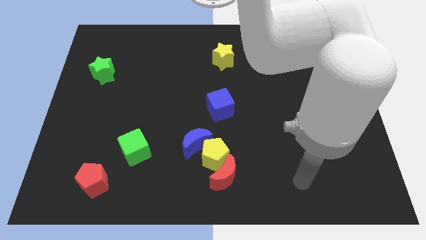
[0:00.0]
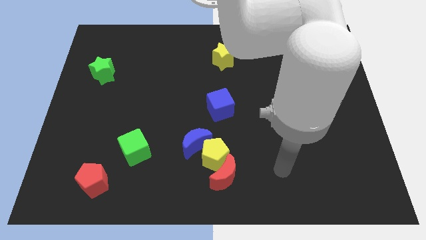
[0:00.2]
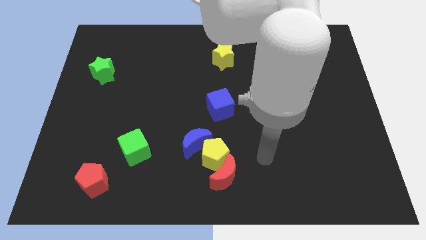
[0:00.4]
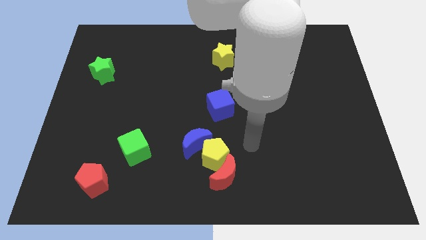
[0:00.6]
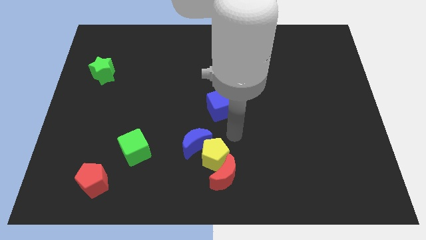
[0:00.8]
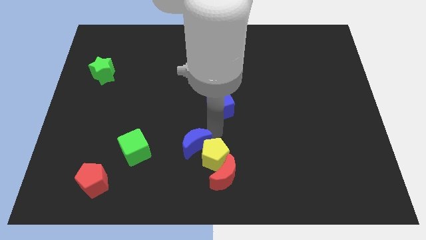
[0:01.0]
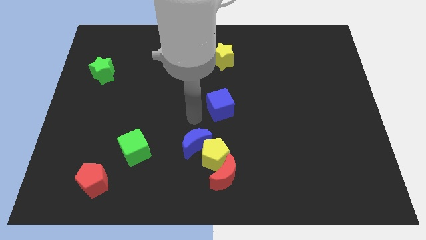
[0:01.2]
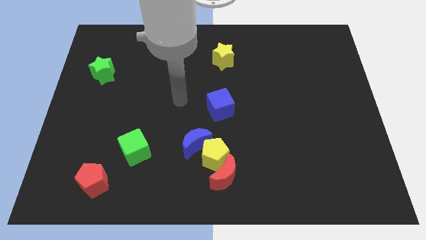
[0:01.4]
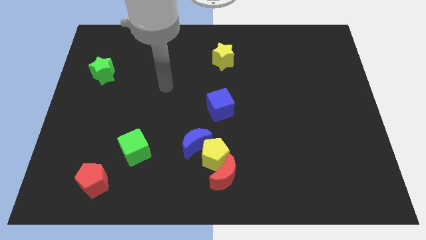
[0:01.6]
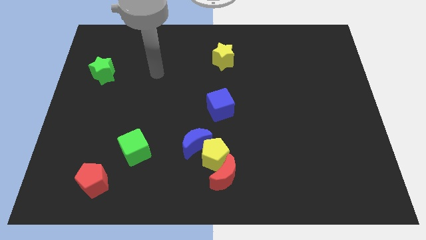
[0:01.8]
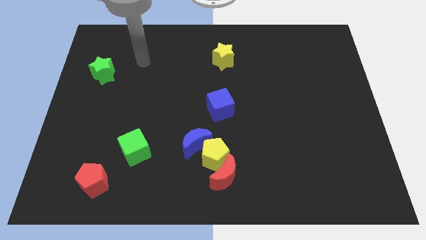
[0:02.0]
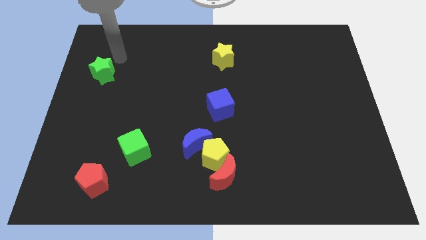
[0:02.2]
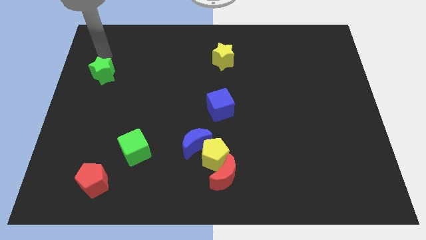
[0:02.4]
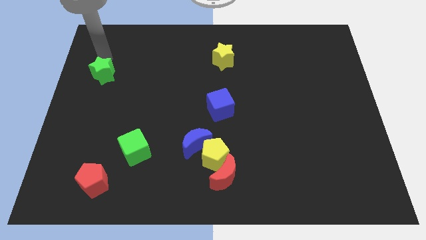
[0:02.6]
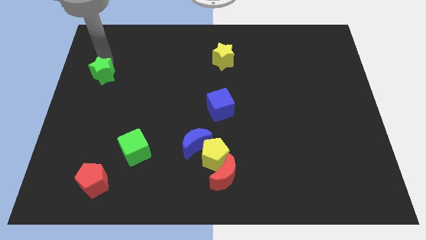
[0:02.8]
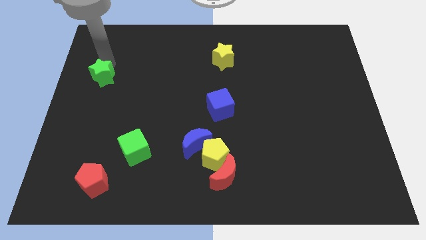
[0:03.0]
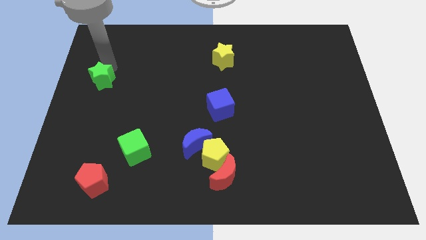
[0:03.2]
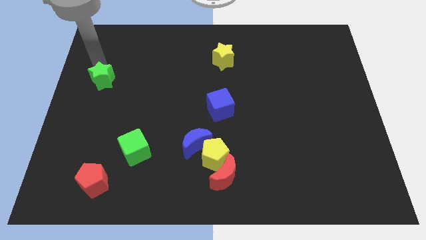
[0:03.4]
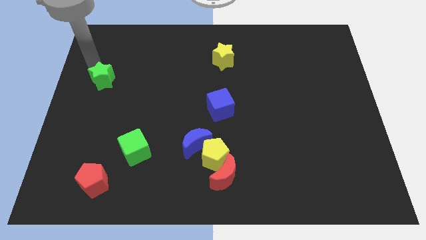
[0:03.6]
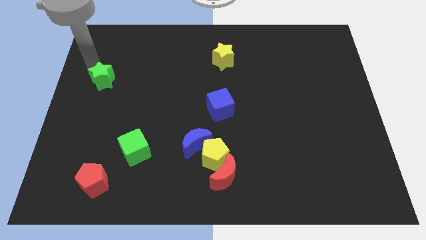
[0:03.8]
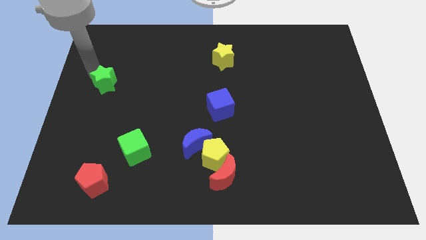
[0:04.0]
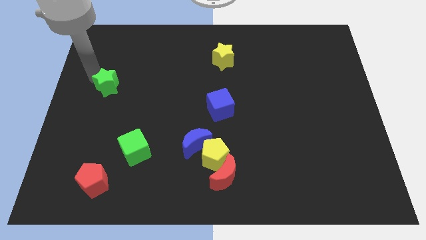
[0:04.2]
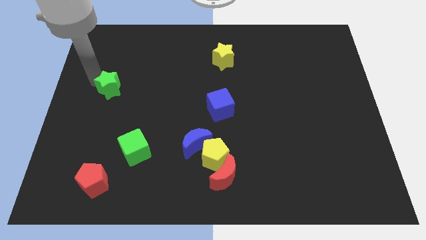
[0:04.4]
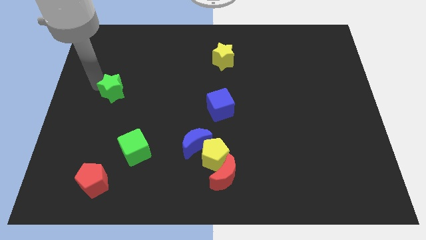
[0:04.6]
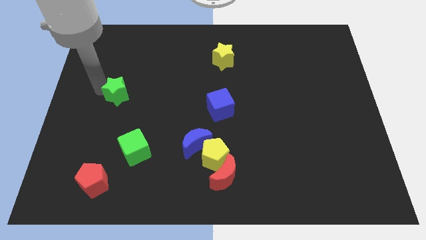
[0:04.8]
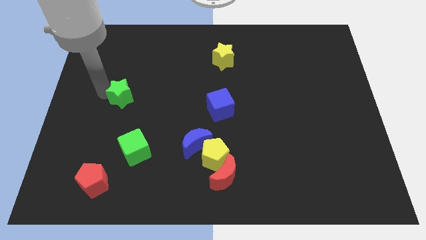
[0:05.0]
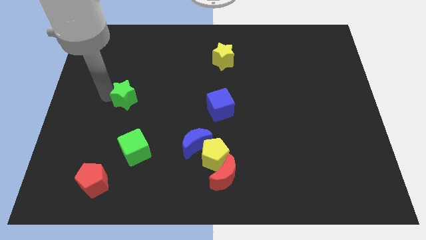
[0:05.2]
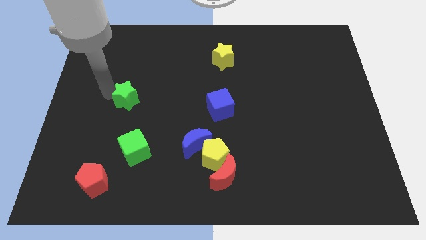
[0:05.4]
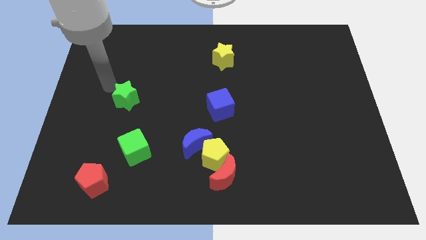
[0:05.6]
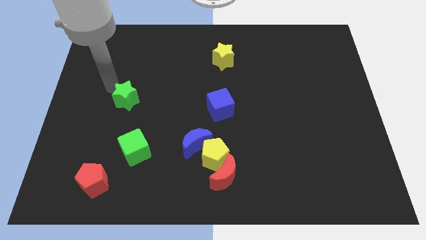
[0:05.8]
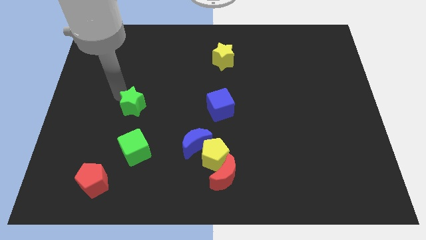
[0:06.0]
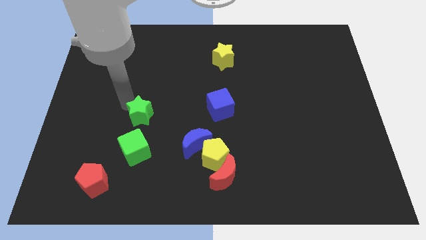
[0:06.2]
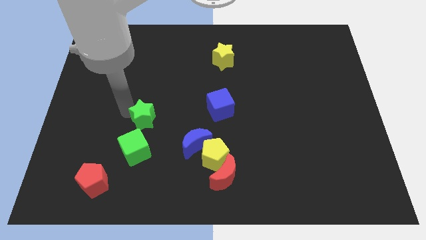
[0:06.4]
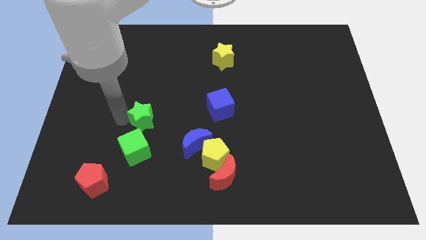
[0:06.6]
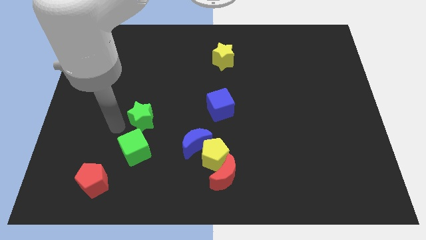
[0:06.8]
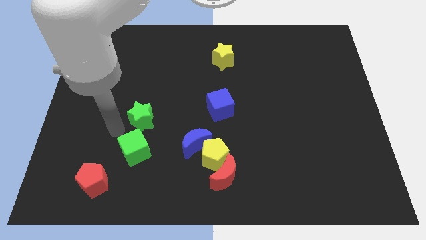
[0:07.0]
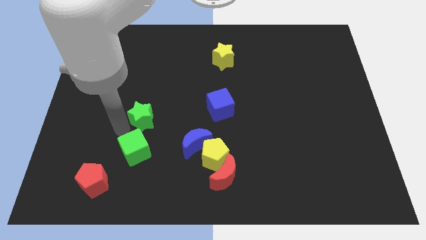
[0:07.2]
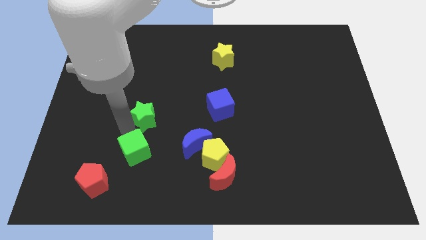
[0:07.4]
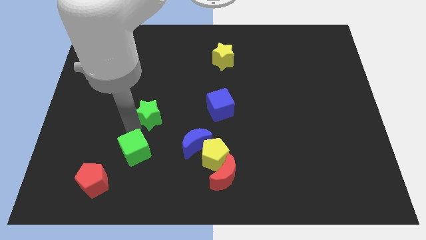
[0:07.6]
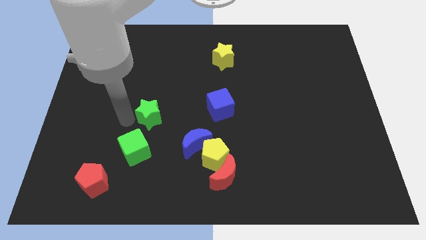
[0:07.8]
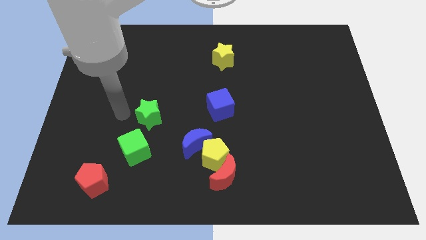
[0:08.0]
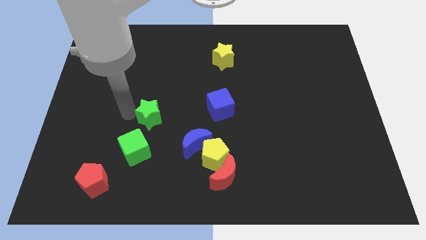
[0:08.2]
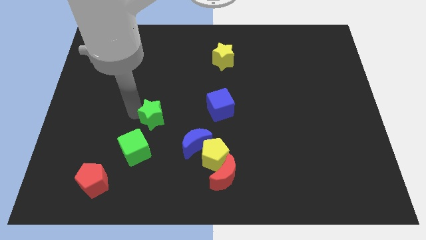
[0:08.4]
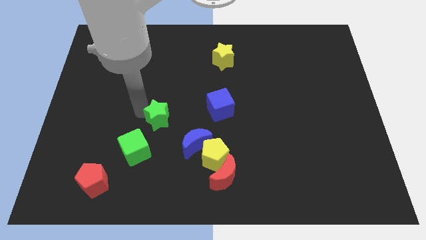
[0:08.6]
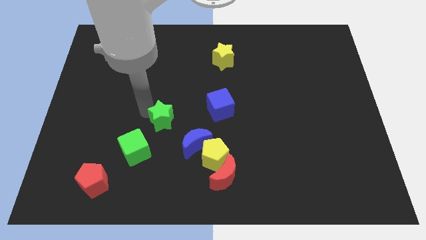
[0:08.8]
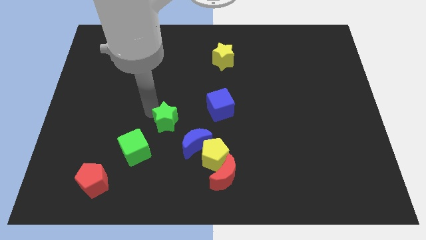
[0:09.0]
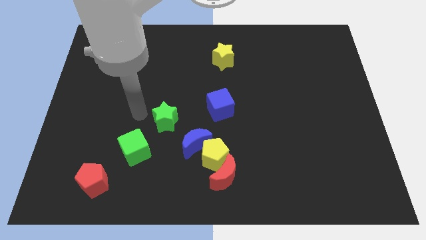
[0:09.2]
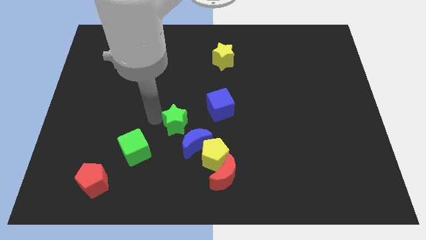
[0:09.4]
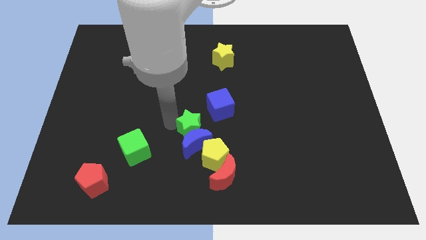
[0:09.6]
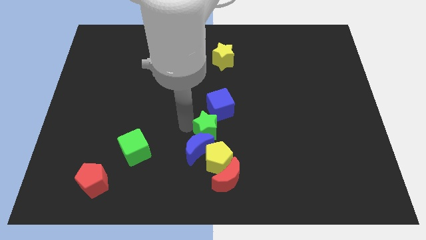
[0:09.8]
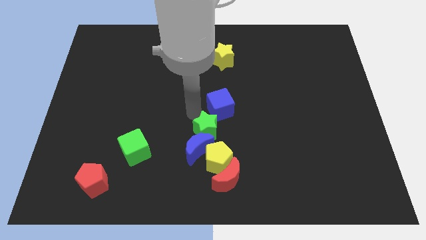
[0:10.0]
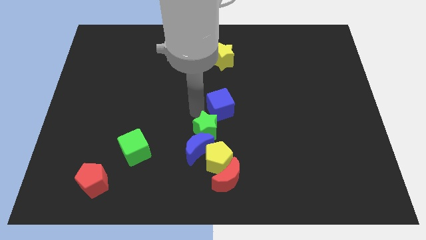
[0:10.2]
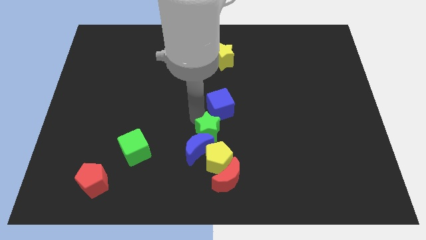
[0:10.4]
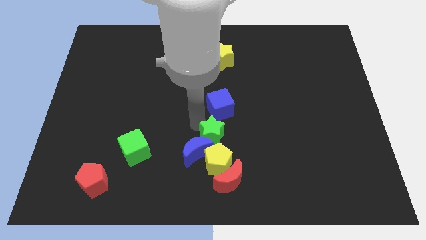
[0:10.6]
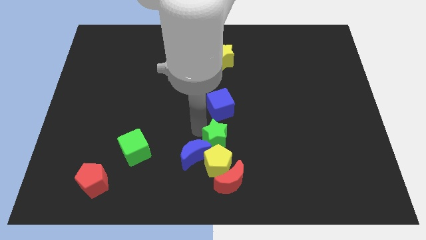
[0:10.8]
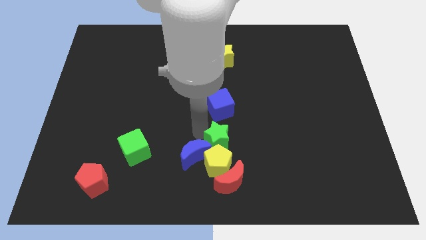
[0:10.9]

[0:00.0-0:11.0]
slide the green star to the yellow pentagon

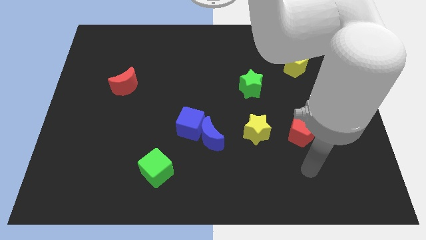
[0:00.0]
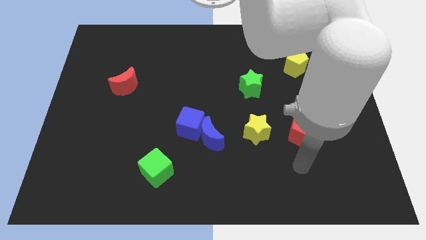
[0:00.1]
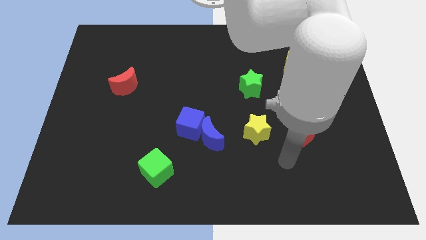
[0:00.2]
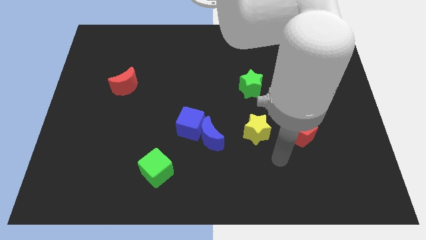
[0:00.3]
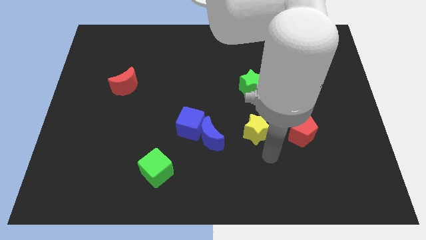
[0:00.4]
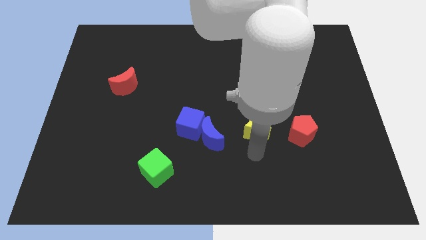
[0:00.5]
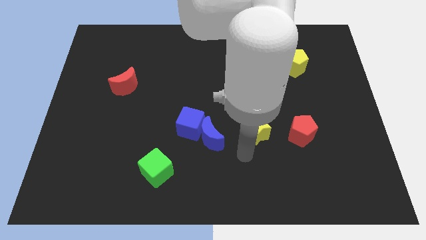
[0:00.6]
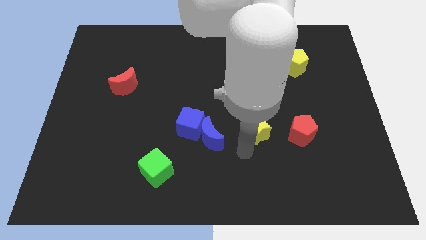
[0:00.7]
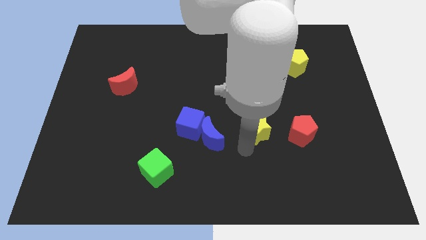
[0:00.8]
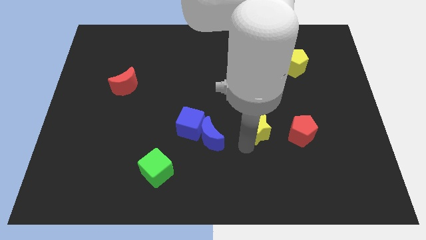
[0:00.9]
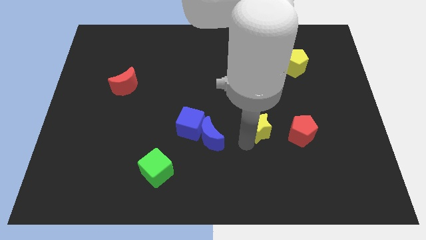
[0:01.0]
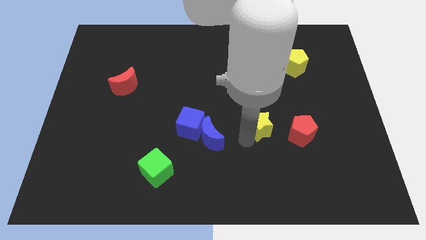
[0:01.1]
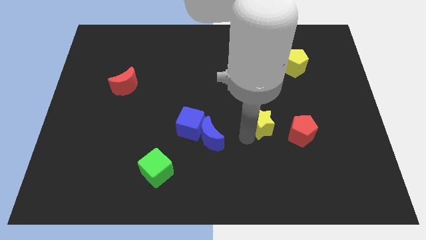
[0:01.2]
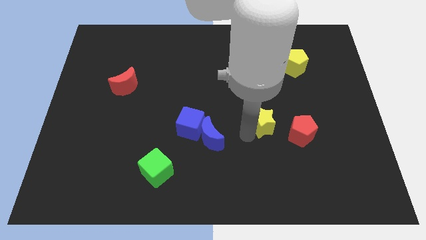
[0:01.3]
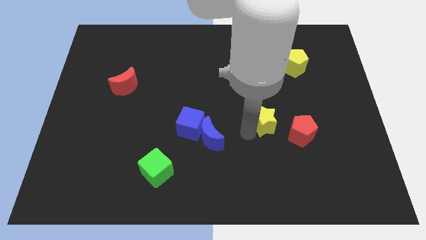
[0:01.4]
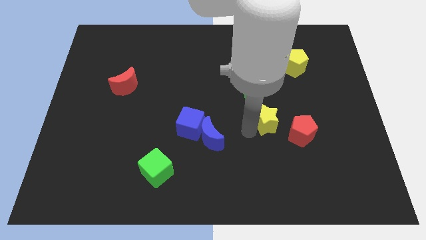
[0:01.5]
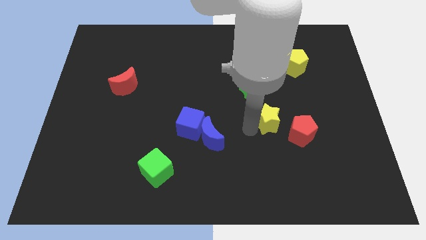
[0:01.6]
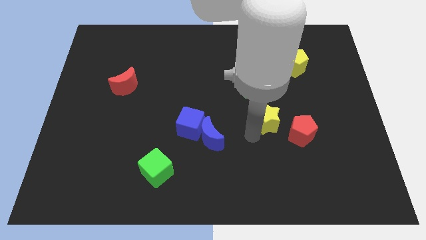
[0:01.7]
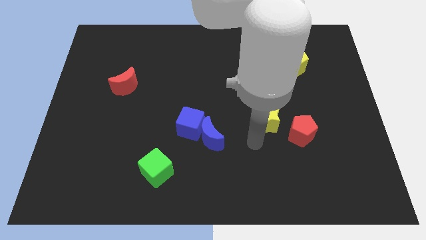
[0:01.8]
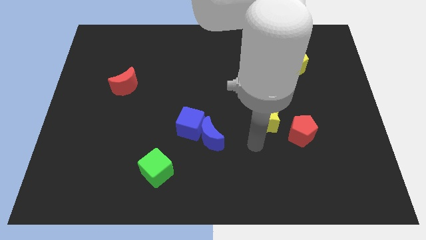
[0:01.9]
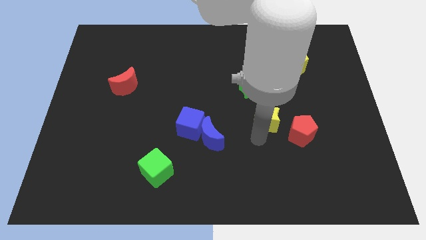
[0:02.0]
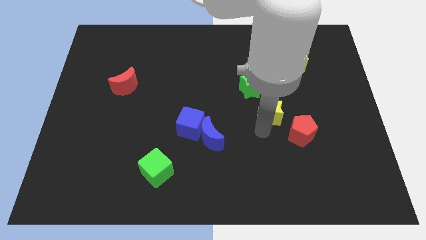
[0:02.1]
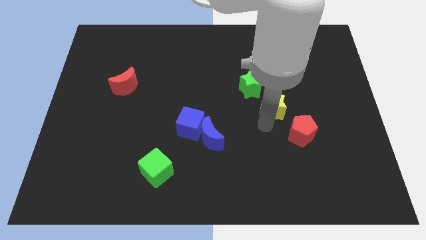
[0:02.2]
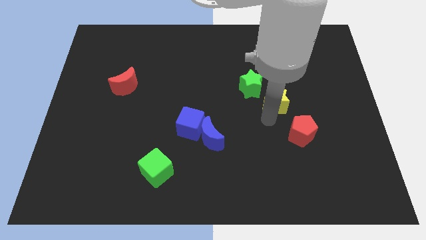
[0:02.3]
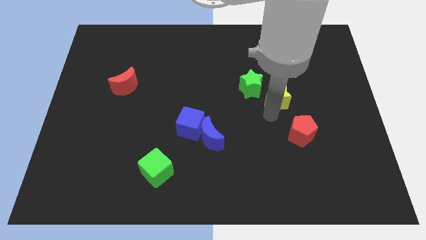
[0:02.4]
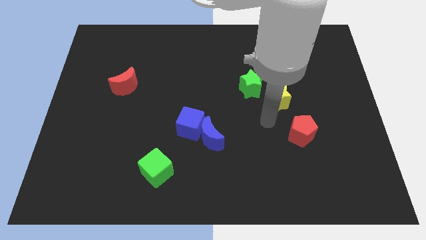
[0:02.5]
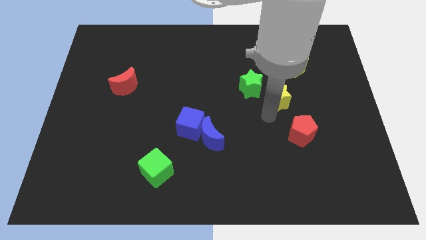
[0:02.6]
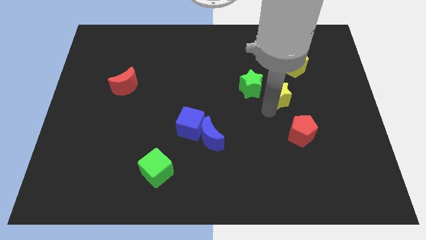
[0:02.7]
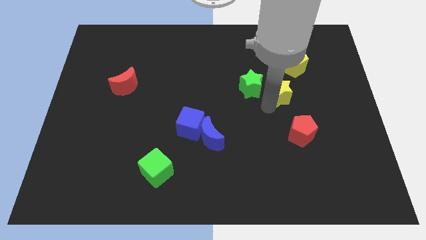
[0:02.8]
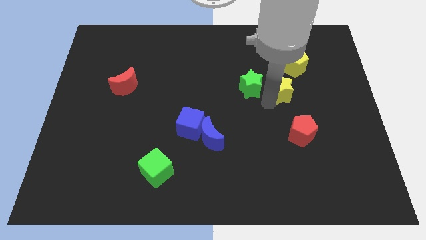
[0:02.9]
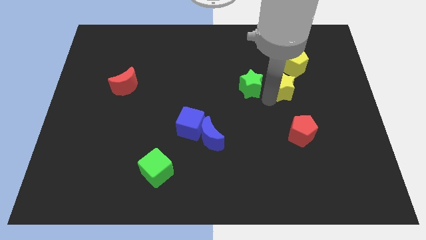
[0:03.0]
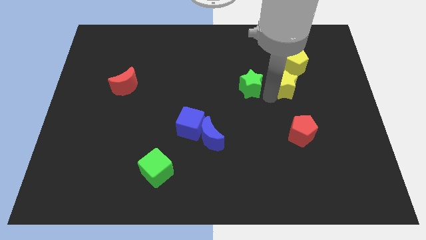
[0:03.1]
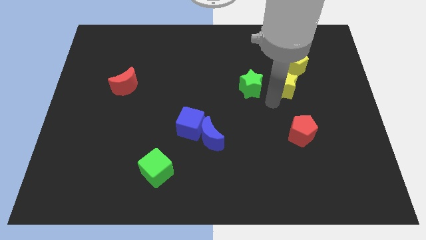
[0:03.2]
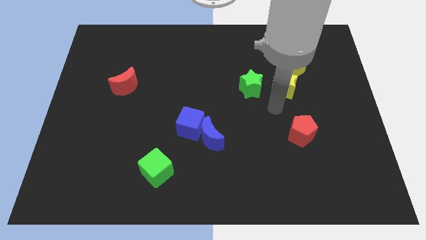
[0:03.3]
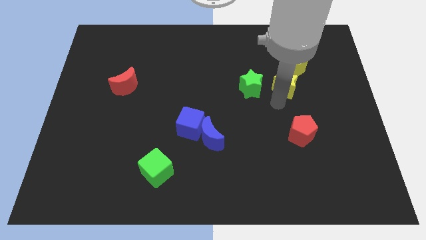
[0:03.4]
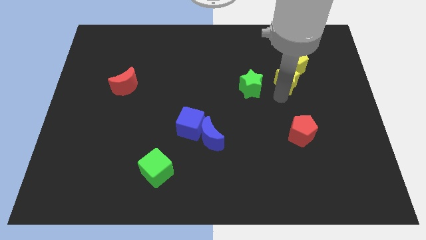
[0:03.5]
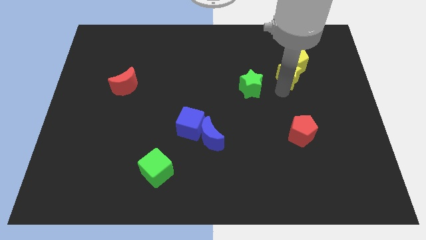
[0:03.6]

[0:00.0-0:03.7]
slide the yellow star towards the yellow pentagon
